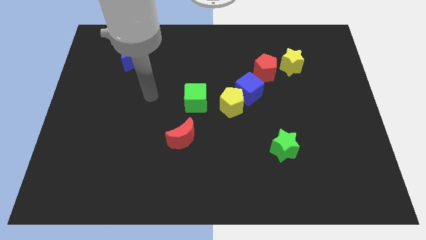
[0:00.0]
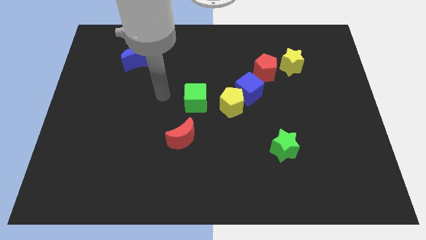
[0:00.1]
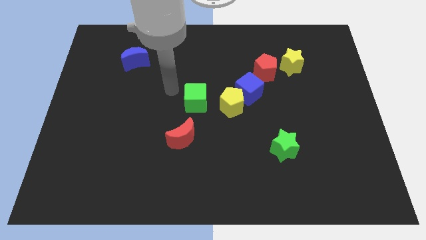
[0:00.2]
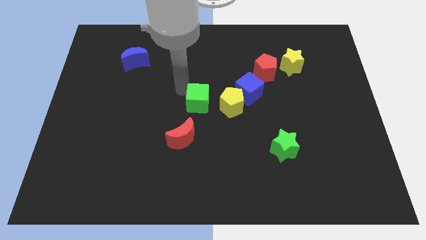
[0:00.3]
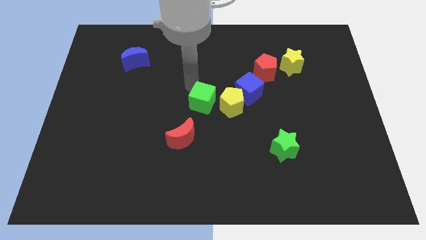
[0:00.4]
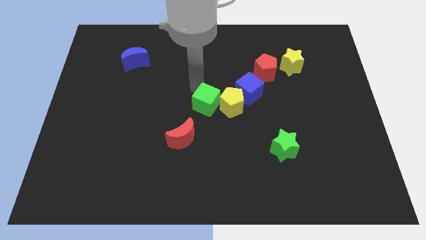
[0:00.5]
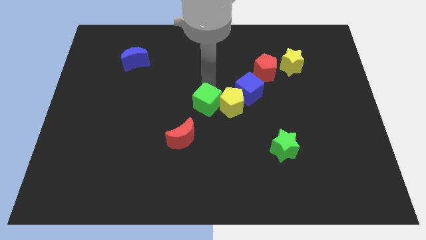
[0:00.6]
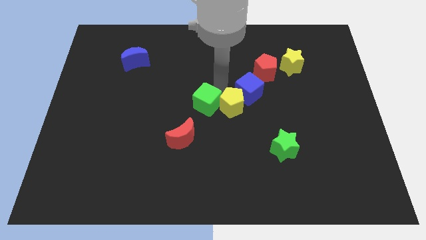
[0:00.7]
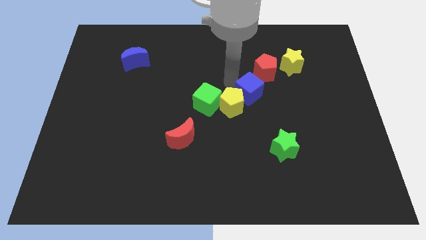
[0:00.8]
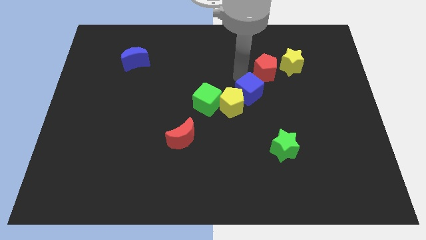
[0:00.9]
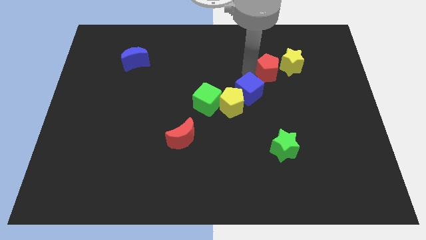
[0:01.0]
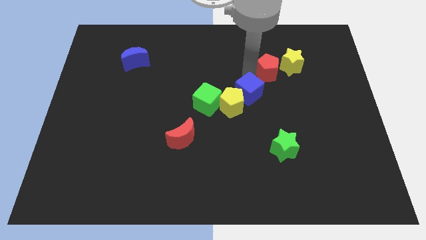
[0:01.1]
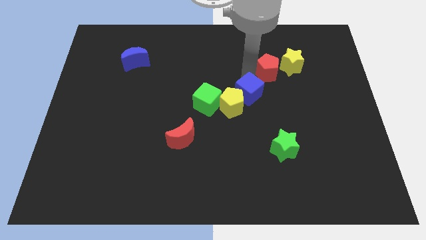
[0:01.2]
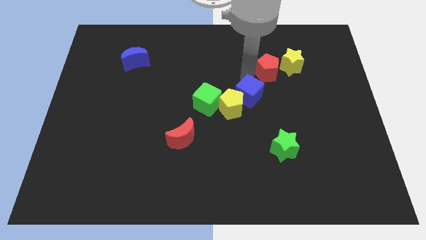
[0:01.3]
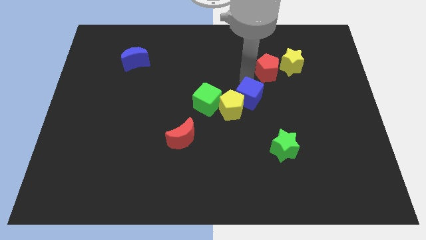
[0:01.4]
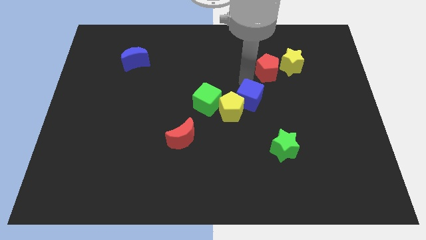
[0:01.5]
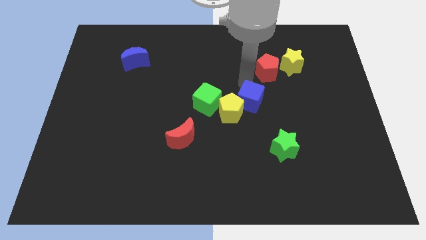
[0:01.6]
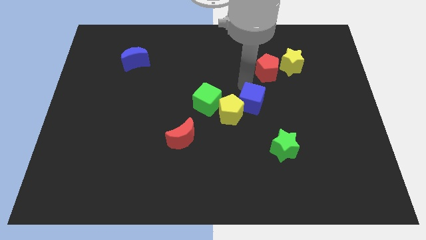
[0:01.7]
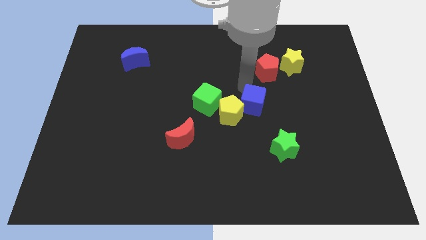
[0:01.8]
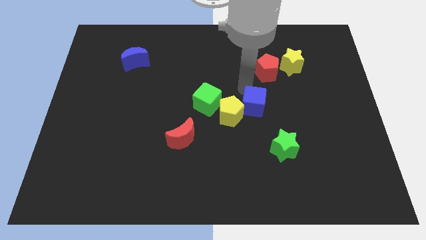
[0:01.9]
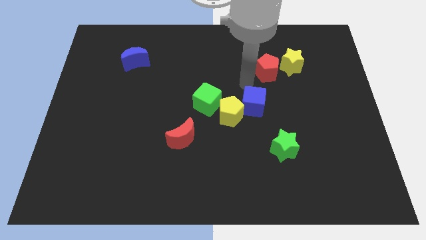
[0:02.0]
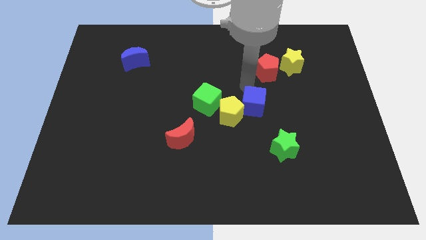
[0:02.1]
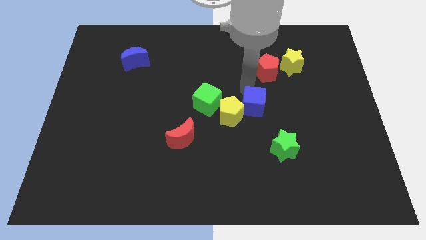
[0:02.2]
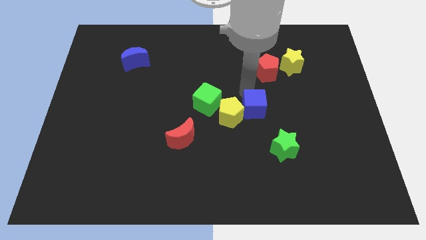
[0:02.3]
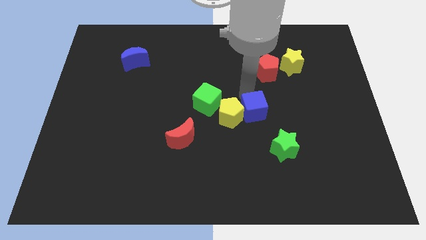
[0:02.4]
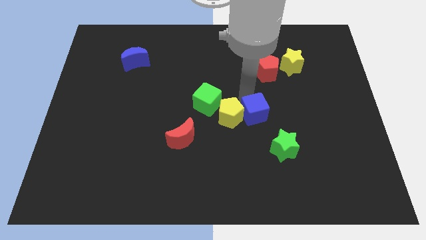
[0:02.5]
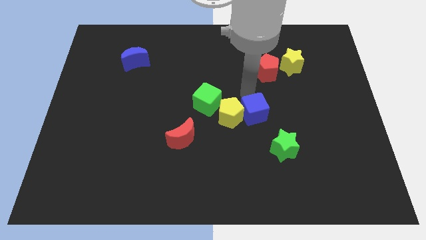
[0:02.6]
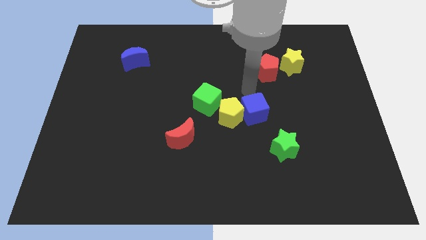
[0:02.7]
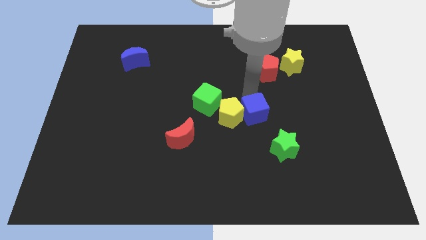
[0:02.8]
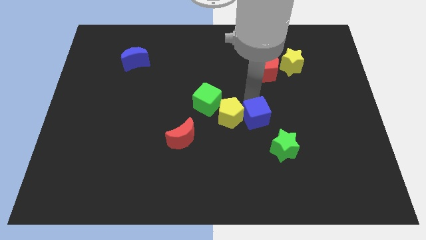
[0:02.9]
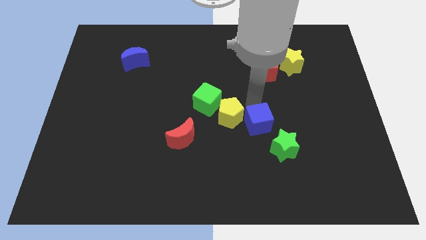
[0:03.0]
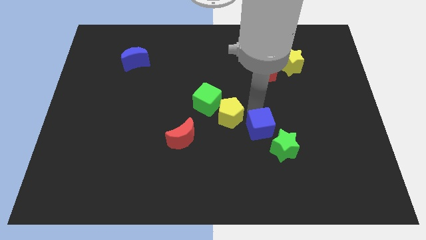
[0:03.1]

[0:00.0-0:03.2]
move the blue cube away from the yellow pentagon and red pentagon

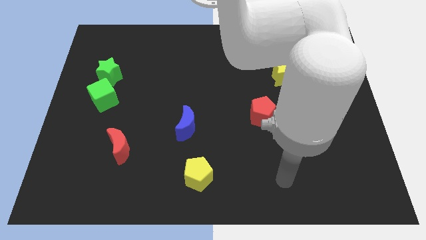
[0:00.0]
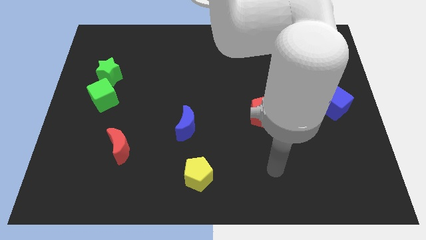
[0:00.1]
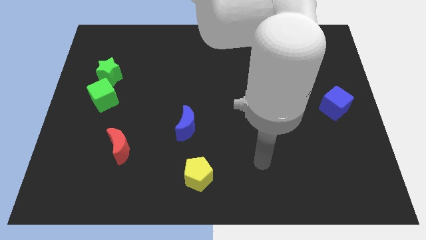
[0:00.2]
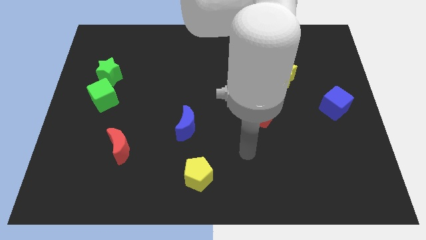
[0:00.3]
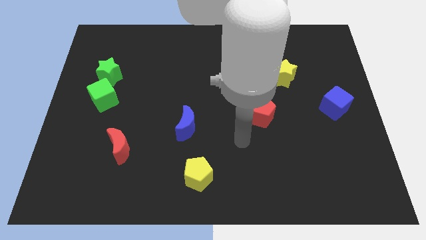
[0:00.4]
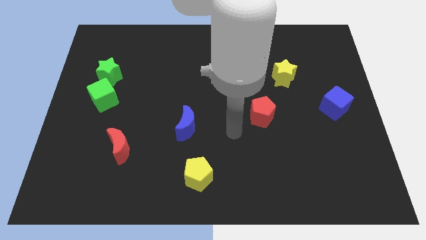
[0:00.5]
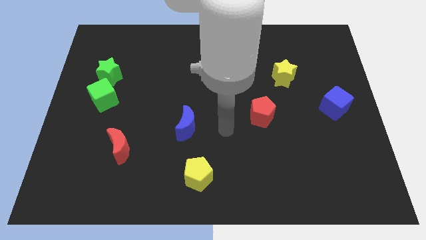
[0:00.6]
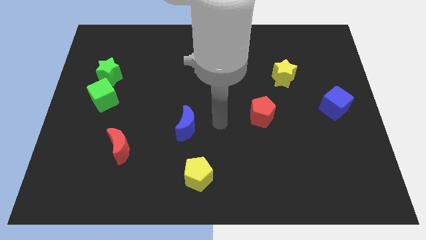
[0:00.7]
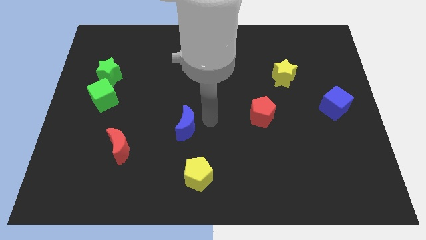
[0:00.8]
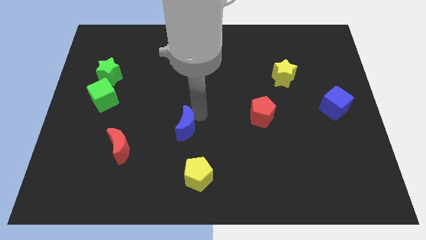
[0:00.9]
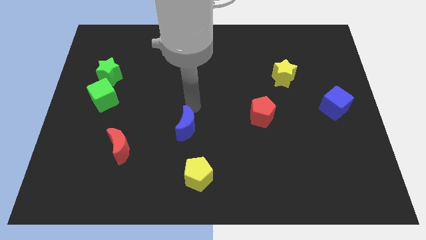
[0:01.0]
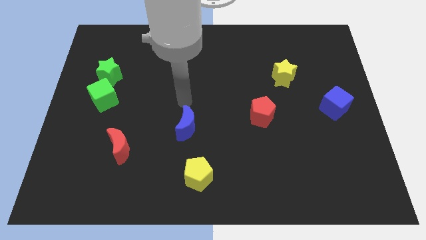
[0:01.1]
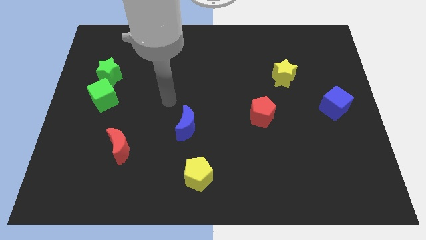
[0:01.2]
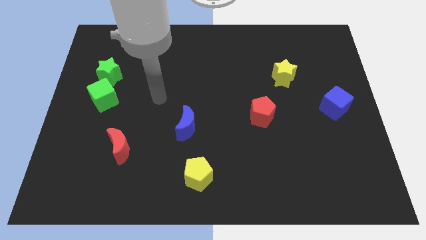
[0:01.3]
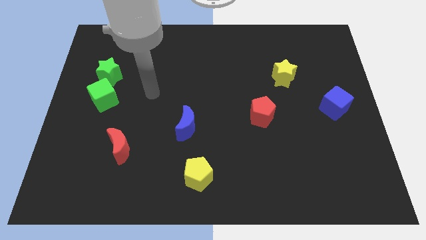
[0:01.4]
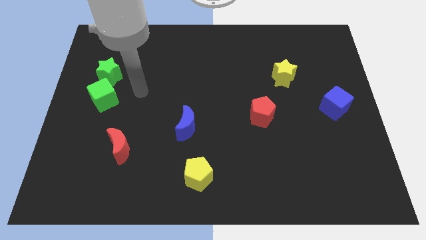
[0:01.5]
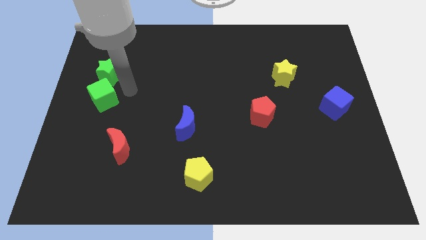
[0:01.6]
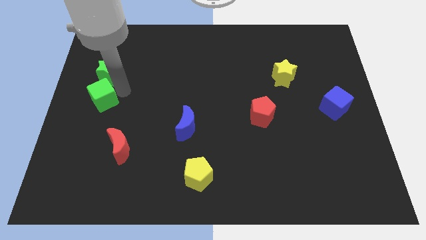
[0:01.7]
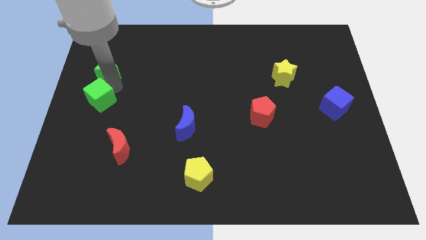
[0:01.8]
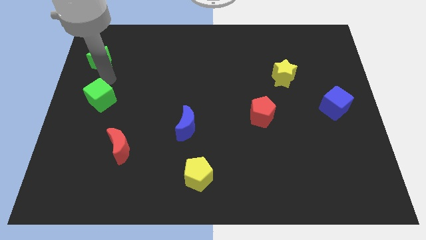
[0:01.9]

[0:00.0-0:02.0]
separate the green cube from the green star

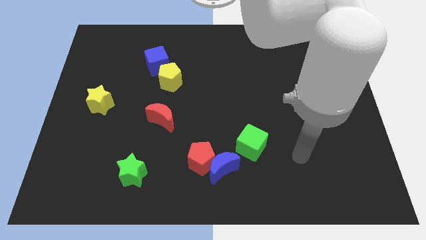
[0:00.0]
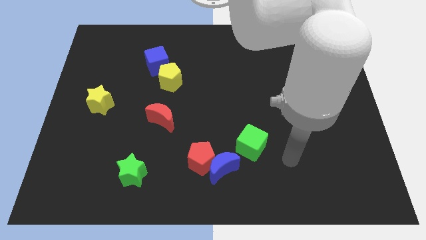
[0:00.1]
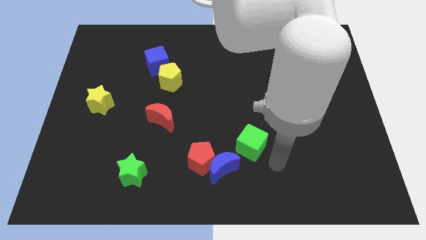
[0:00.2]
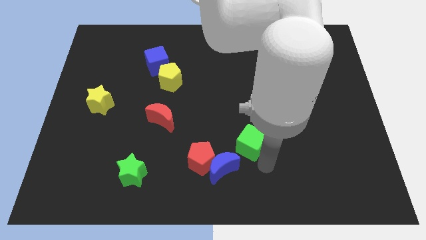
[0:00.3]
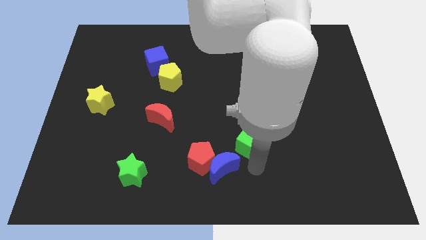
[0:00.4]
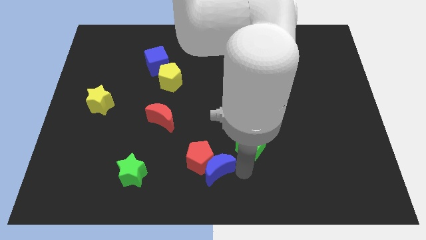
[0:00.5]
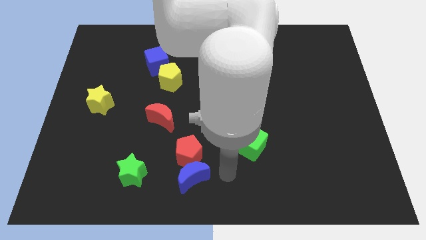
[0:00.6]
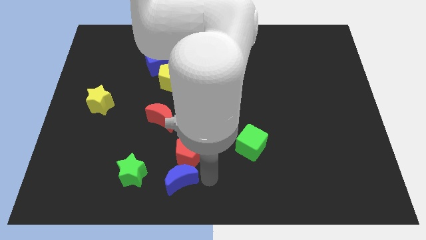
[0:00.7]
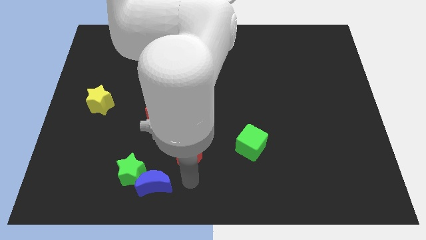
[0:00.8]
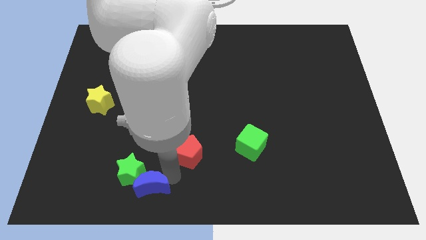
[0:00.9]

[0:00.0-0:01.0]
separate the red pentagon from the blue moon

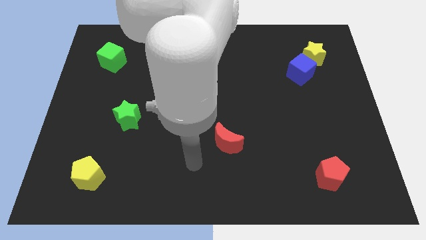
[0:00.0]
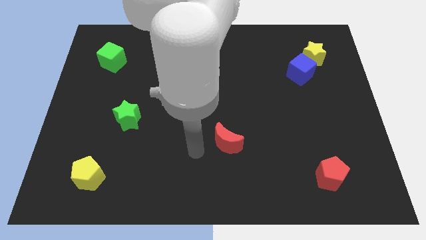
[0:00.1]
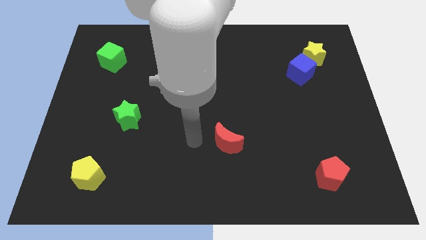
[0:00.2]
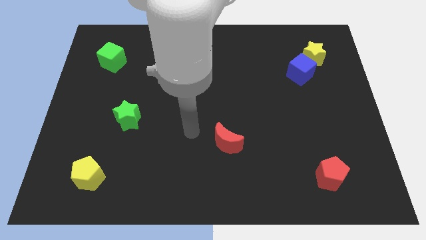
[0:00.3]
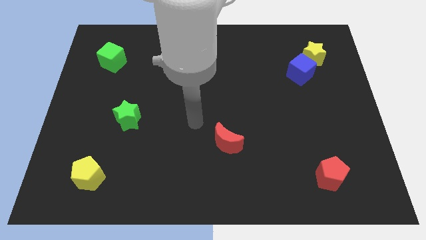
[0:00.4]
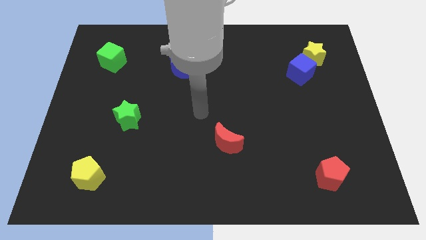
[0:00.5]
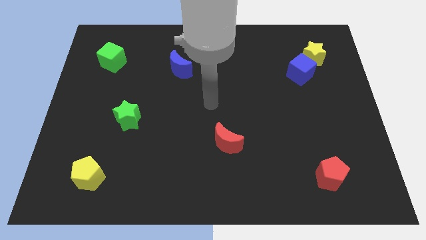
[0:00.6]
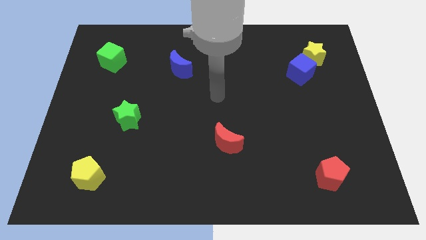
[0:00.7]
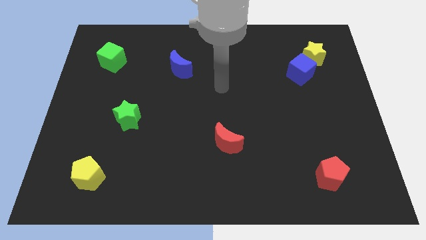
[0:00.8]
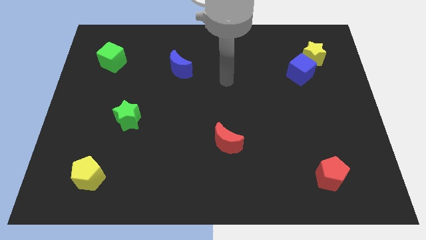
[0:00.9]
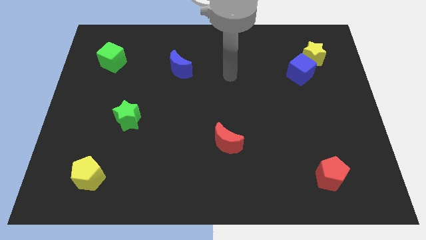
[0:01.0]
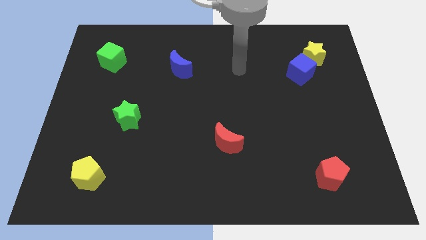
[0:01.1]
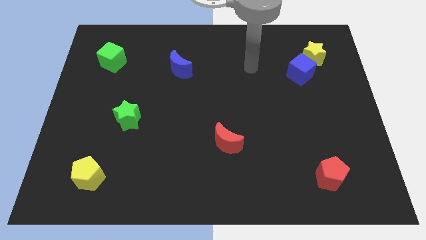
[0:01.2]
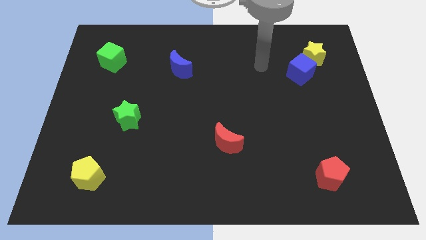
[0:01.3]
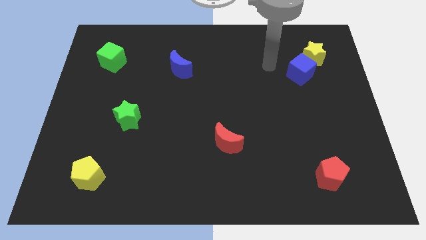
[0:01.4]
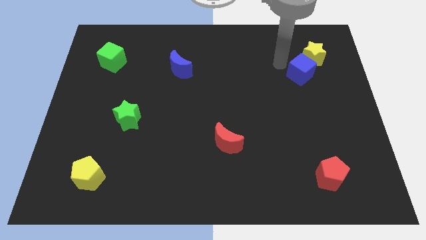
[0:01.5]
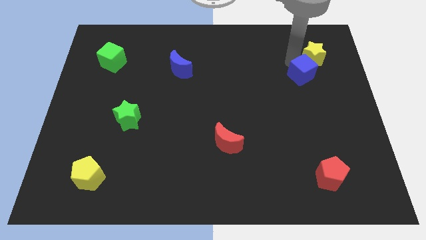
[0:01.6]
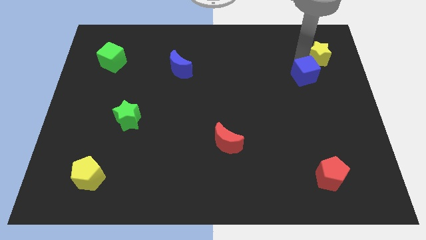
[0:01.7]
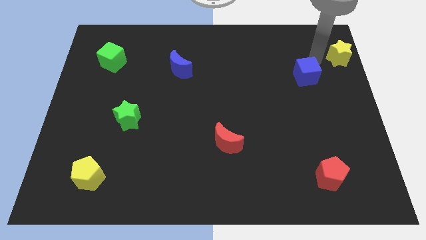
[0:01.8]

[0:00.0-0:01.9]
separate the blue cube from the yellow star

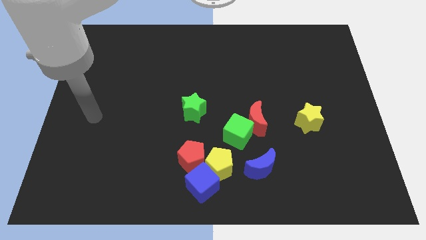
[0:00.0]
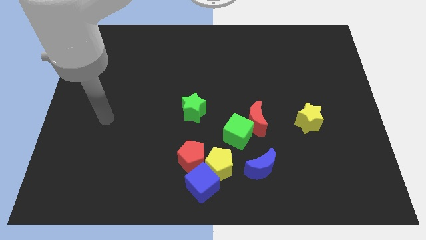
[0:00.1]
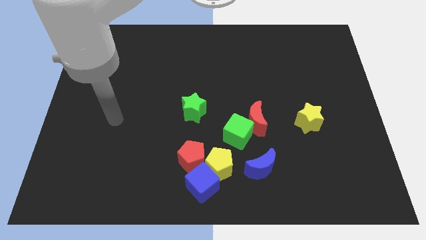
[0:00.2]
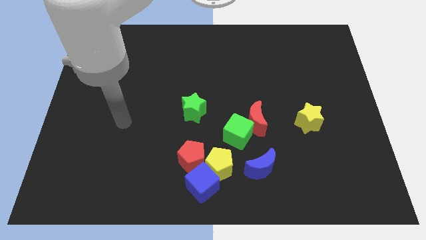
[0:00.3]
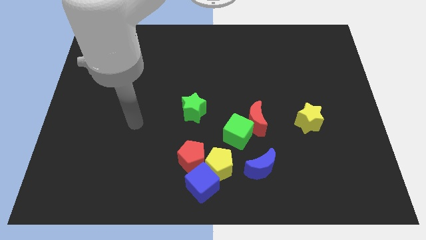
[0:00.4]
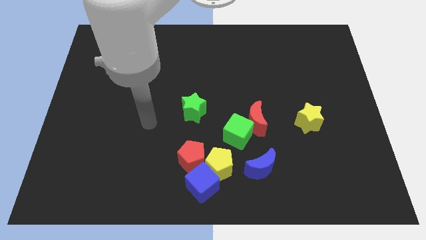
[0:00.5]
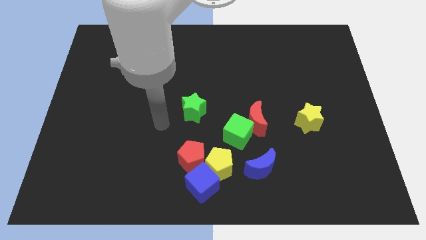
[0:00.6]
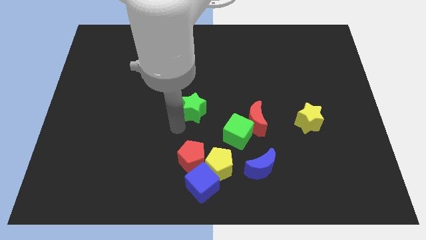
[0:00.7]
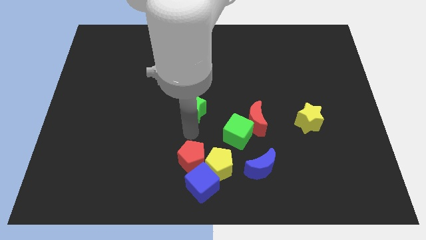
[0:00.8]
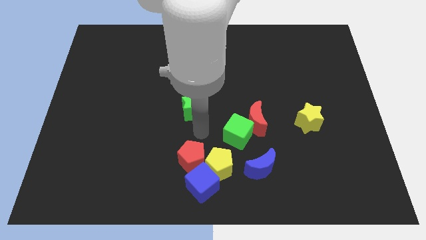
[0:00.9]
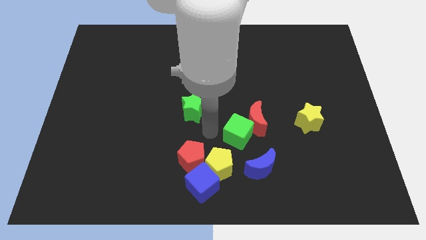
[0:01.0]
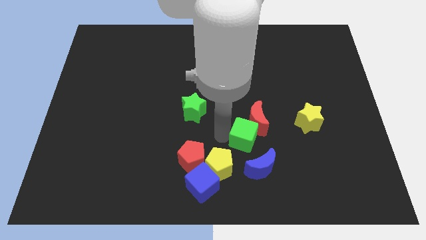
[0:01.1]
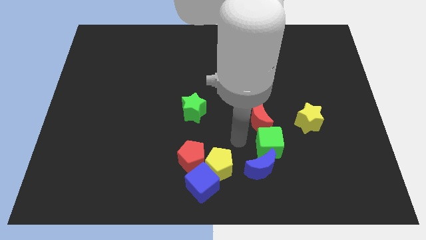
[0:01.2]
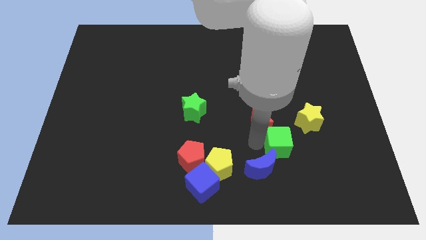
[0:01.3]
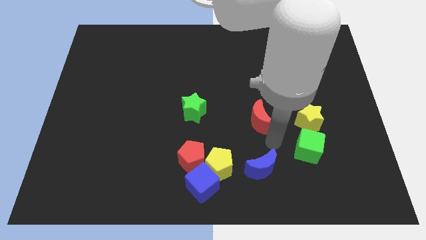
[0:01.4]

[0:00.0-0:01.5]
separate the red moon from the green cube
